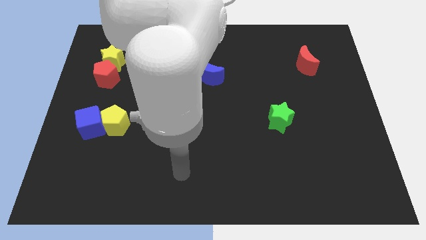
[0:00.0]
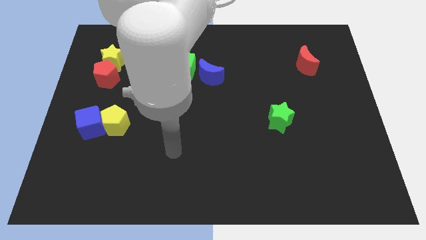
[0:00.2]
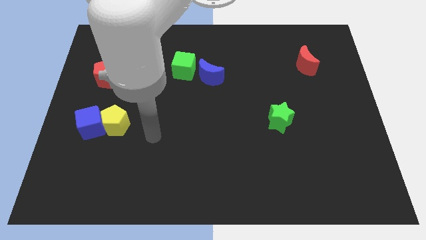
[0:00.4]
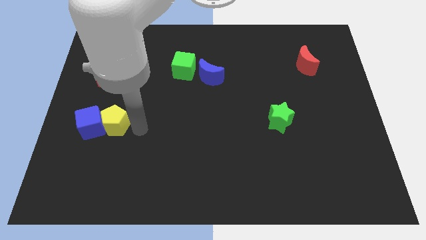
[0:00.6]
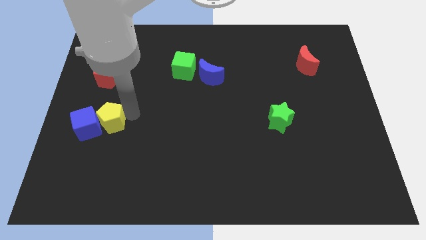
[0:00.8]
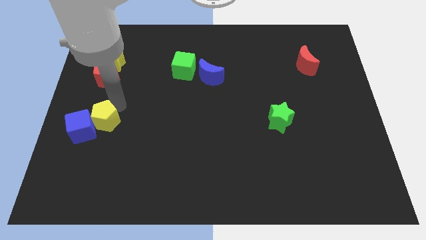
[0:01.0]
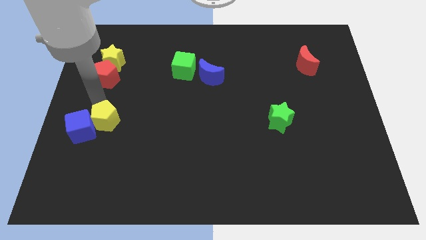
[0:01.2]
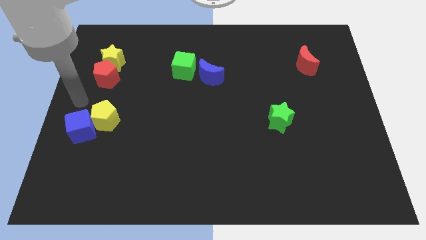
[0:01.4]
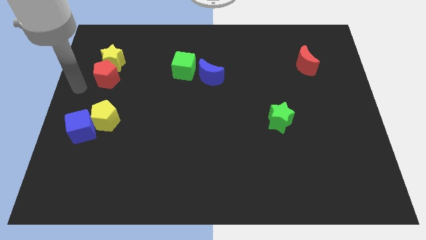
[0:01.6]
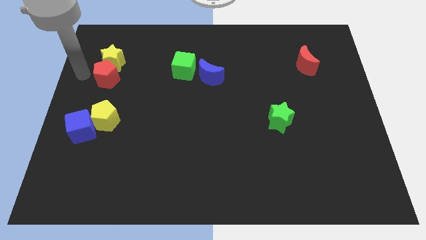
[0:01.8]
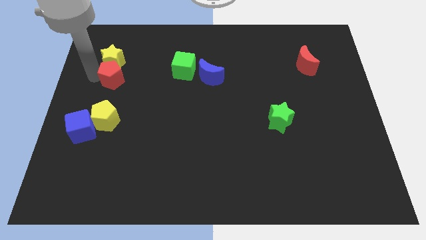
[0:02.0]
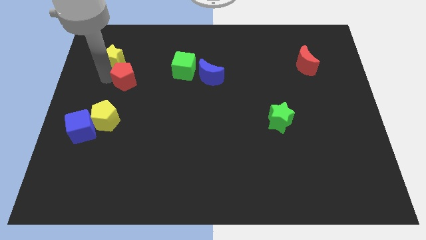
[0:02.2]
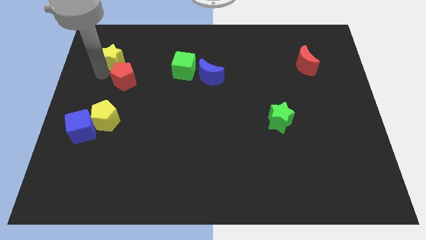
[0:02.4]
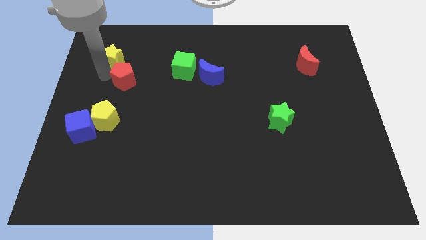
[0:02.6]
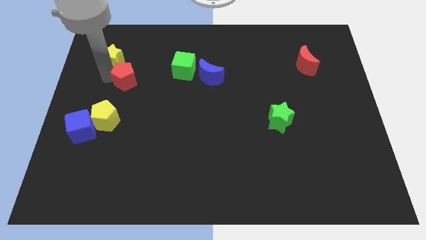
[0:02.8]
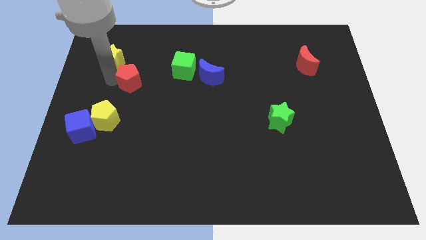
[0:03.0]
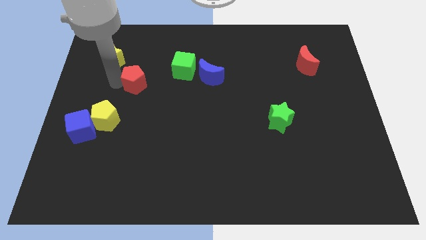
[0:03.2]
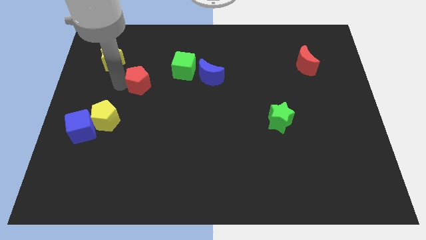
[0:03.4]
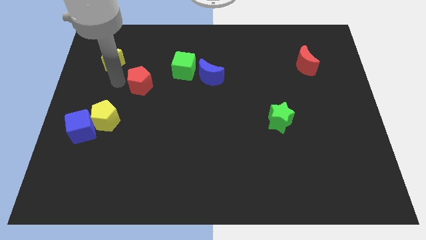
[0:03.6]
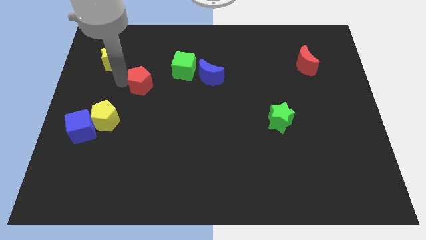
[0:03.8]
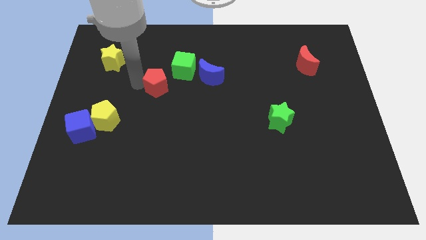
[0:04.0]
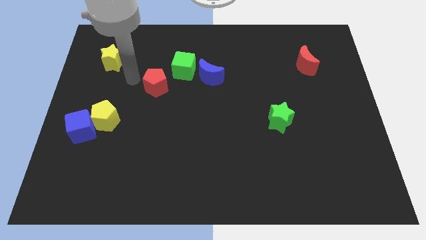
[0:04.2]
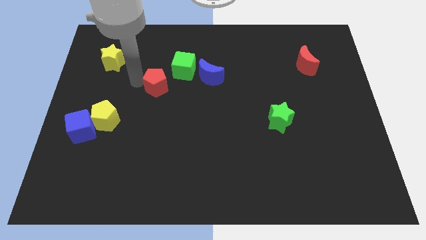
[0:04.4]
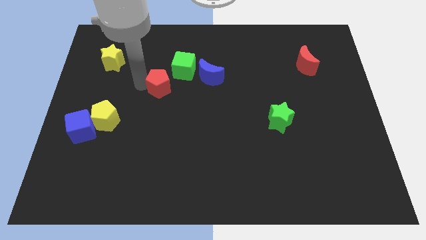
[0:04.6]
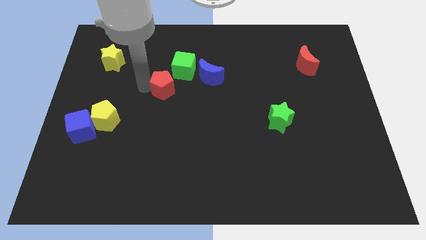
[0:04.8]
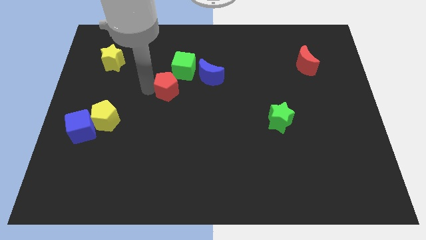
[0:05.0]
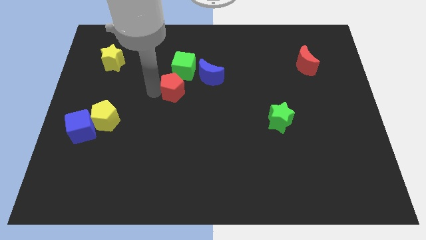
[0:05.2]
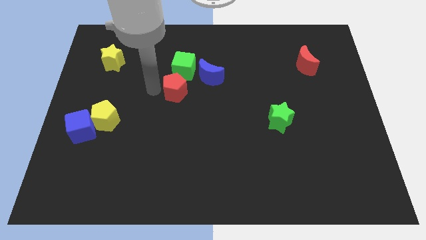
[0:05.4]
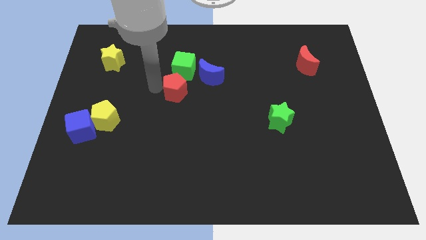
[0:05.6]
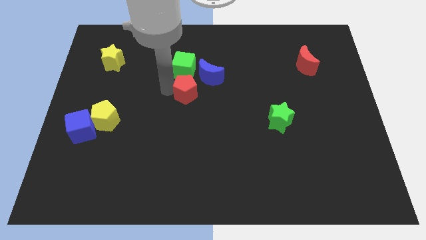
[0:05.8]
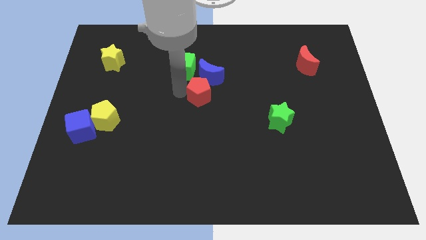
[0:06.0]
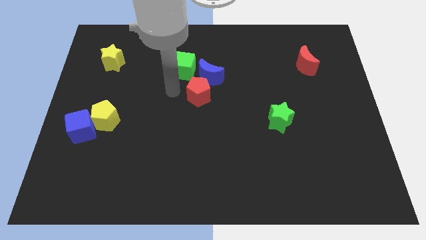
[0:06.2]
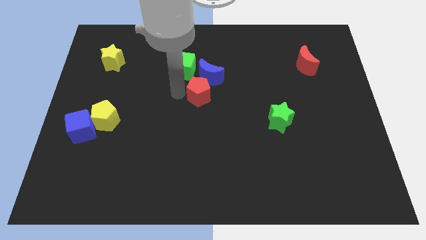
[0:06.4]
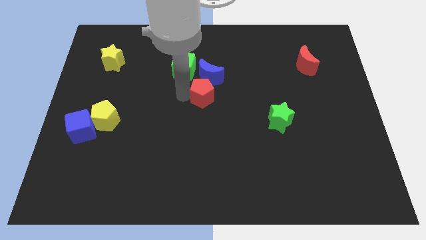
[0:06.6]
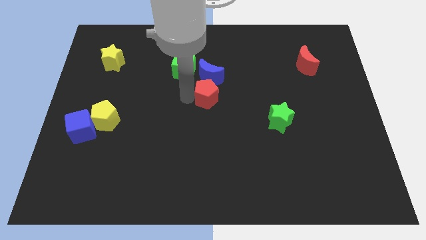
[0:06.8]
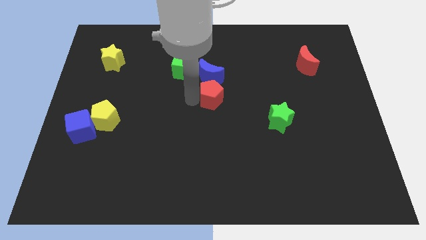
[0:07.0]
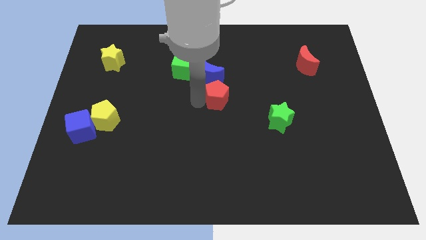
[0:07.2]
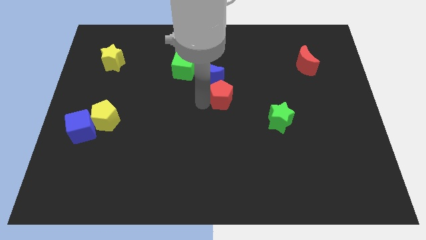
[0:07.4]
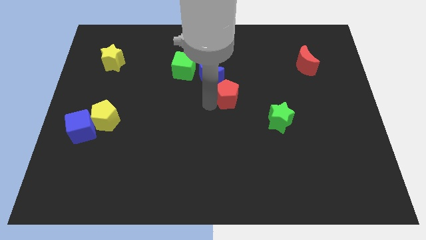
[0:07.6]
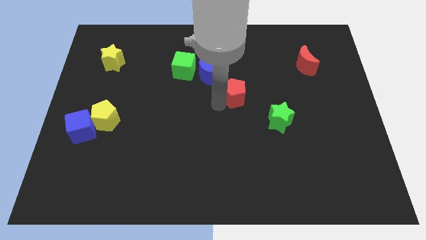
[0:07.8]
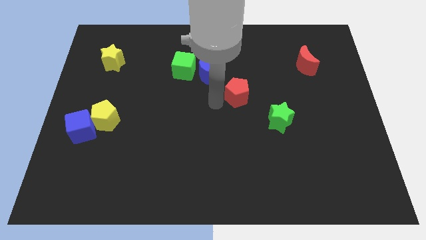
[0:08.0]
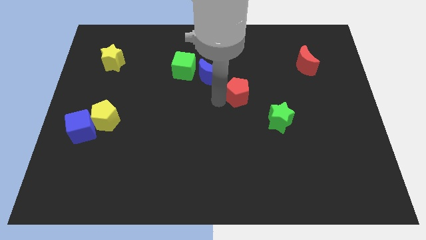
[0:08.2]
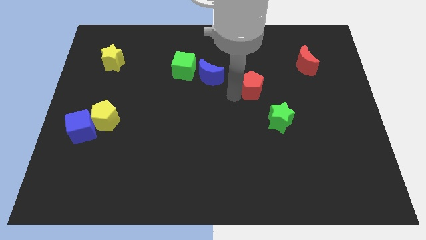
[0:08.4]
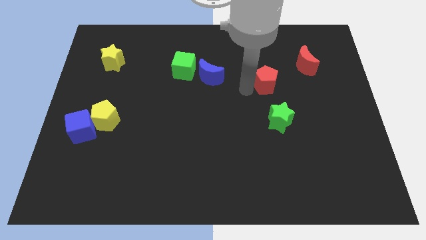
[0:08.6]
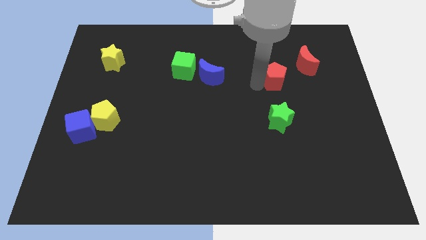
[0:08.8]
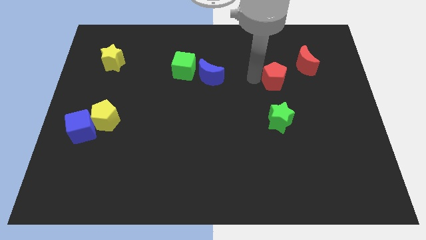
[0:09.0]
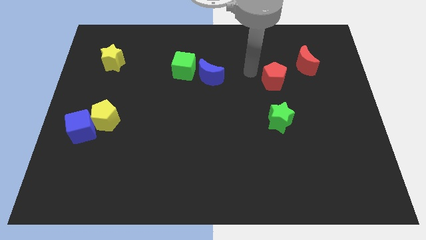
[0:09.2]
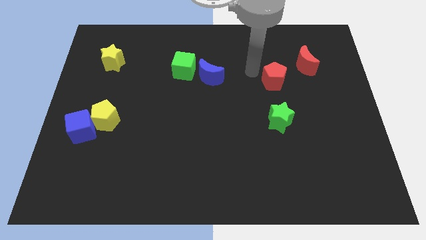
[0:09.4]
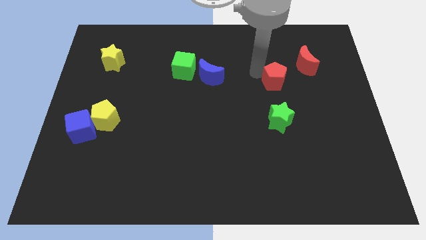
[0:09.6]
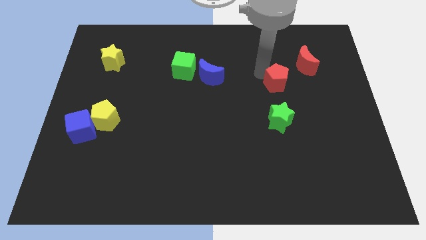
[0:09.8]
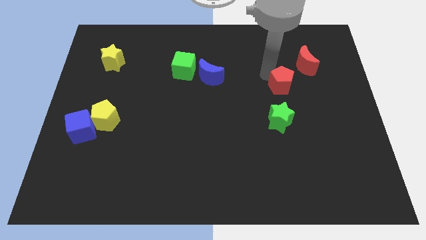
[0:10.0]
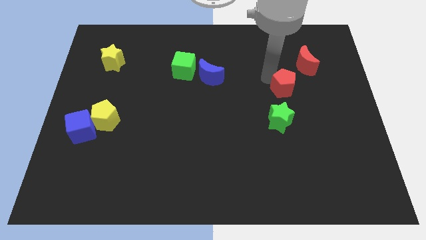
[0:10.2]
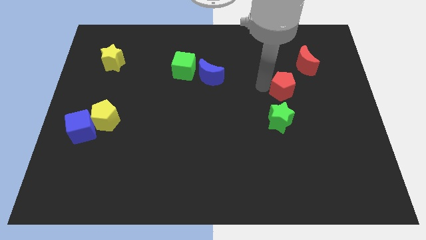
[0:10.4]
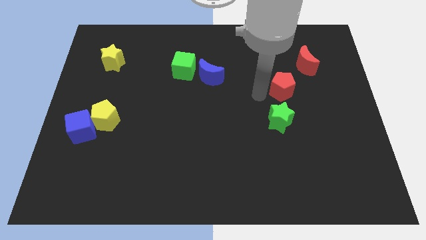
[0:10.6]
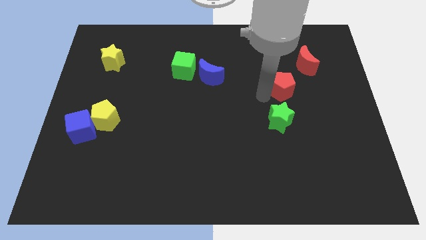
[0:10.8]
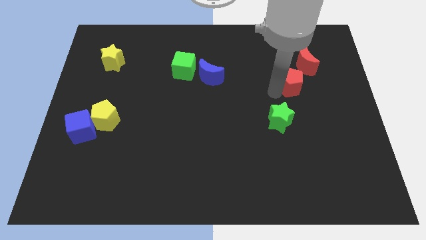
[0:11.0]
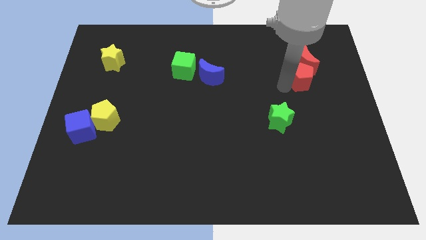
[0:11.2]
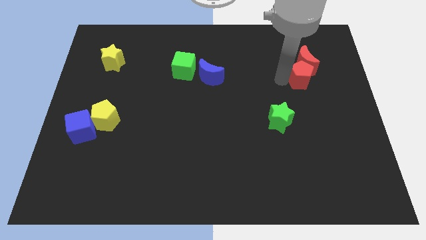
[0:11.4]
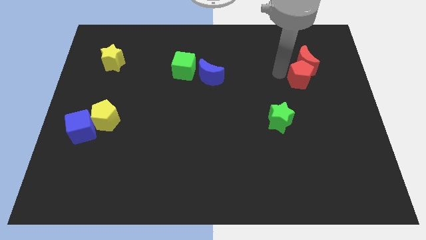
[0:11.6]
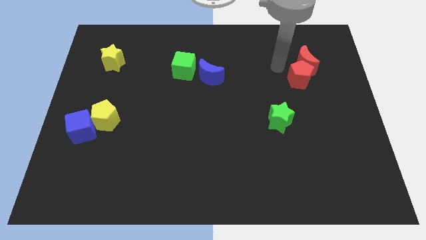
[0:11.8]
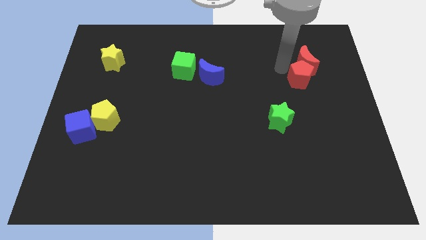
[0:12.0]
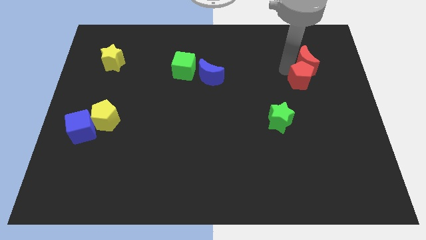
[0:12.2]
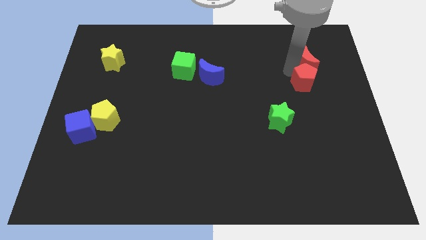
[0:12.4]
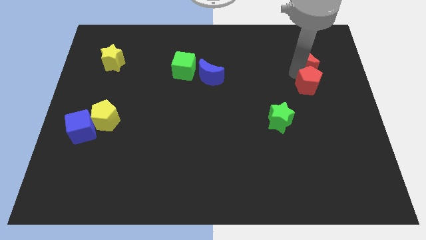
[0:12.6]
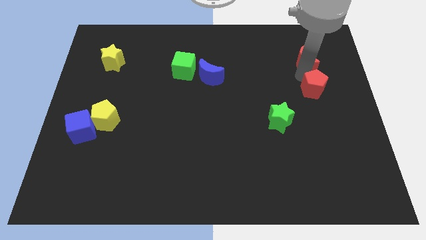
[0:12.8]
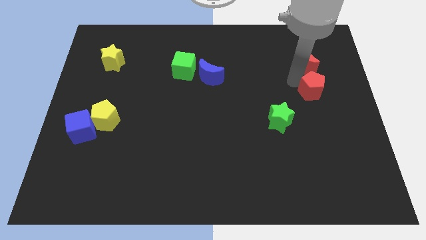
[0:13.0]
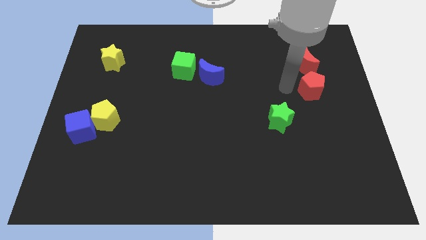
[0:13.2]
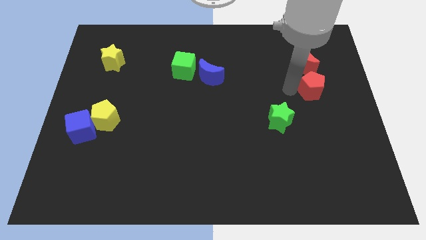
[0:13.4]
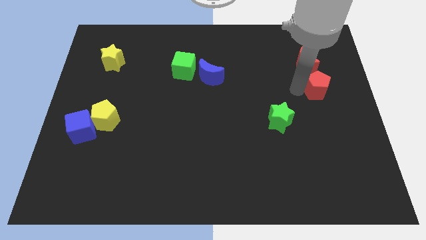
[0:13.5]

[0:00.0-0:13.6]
put the red pentagon to the center right
